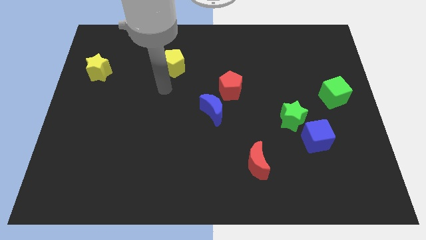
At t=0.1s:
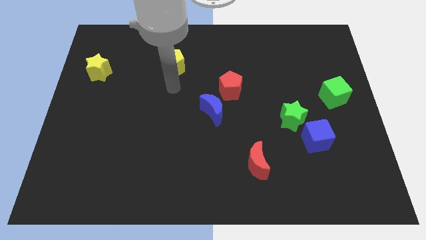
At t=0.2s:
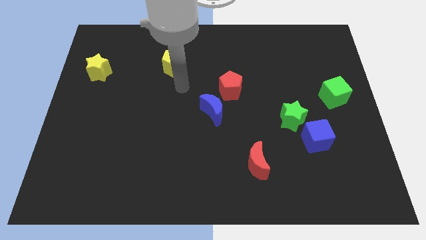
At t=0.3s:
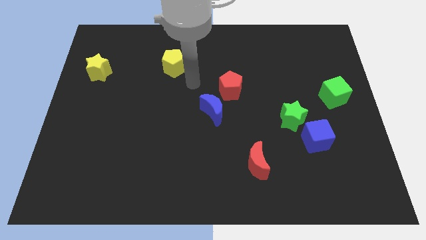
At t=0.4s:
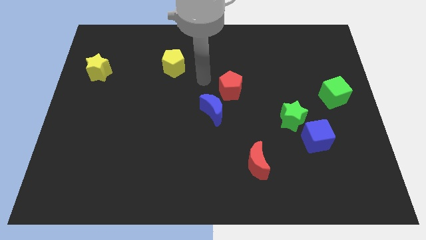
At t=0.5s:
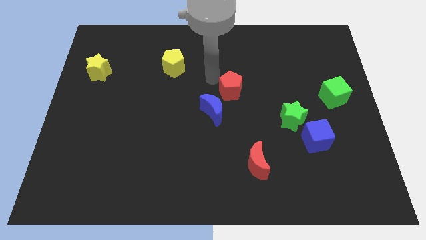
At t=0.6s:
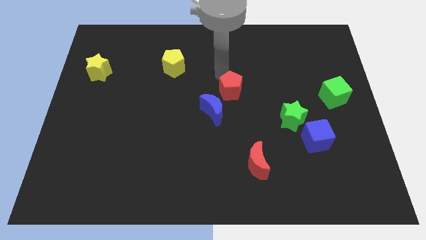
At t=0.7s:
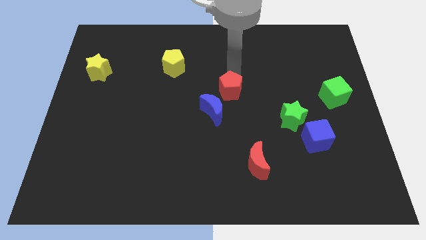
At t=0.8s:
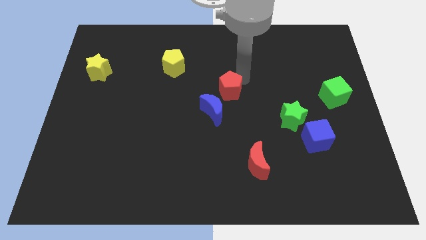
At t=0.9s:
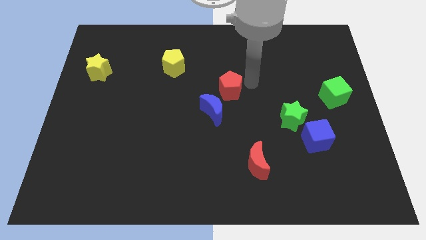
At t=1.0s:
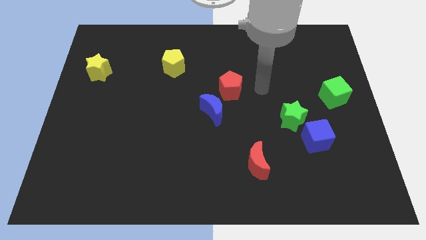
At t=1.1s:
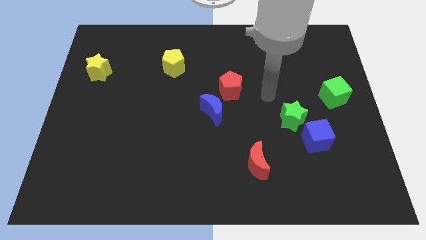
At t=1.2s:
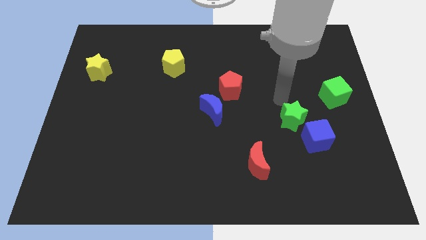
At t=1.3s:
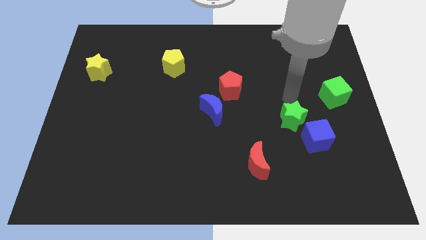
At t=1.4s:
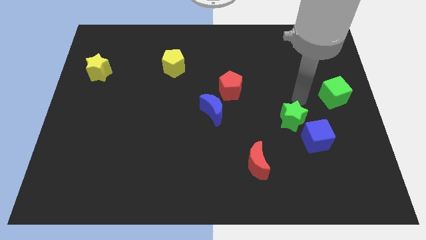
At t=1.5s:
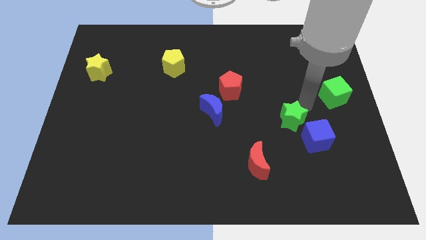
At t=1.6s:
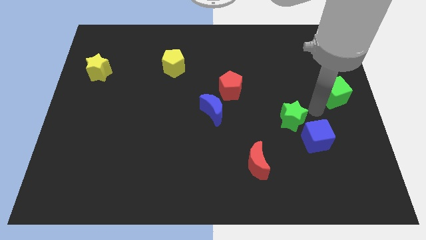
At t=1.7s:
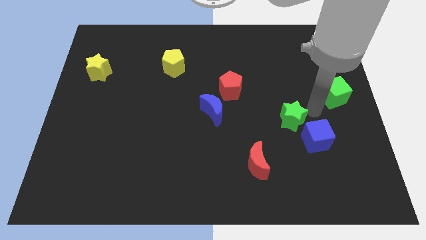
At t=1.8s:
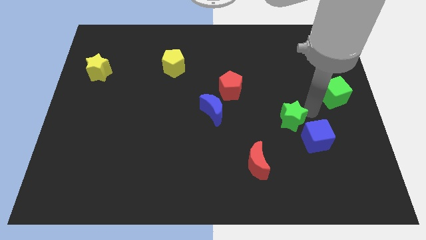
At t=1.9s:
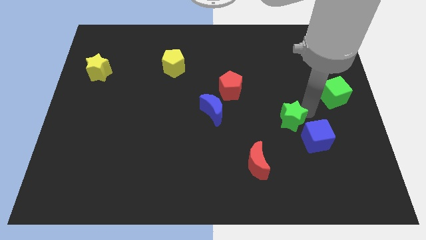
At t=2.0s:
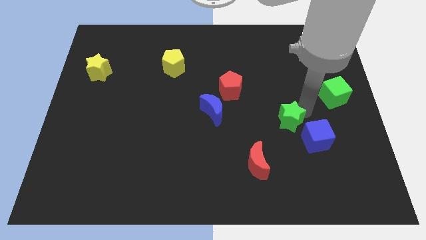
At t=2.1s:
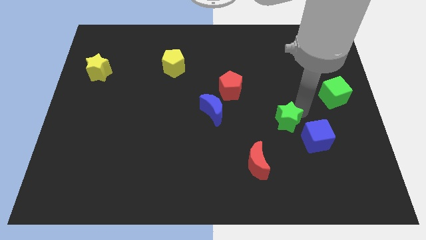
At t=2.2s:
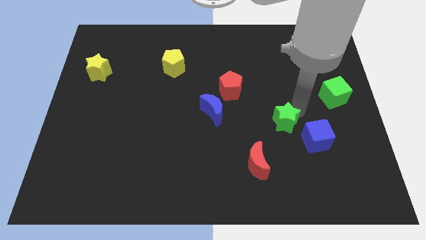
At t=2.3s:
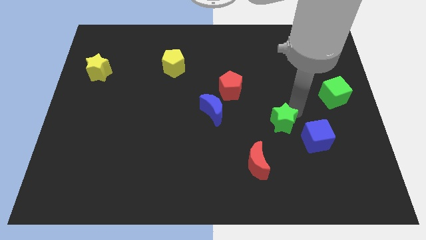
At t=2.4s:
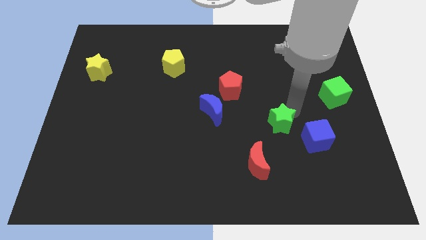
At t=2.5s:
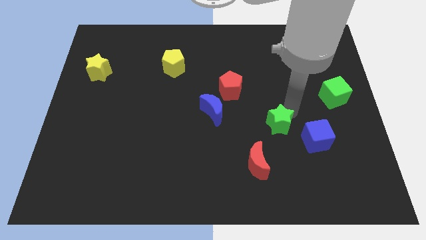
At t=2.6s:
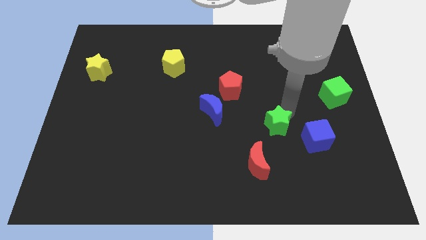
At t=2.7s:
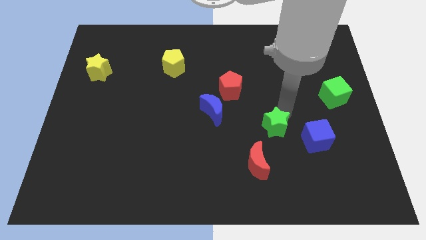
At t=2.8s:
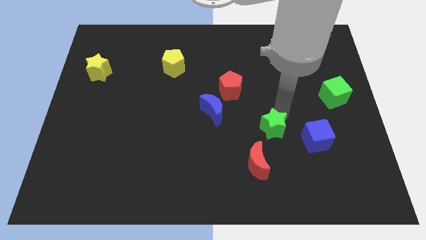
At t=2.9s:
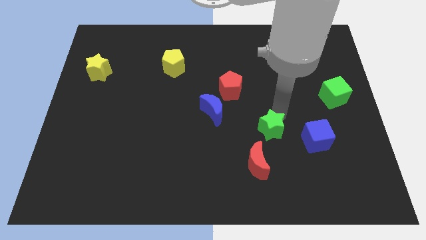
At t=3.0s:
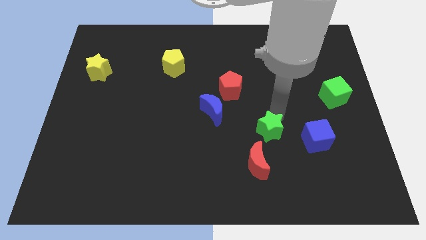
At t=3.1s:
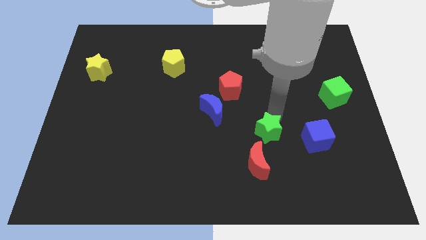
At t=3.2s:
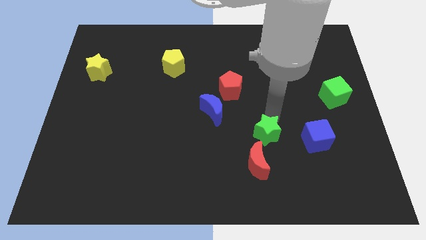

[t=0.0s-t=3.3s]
slide the green star a little downwards and then to the left

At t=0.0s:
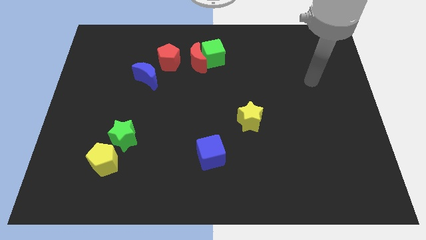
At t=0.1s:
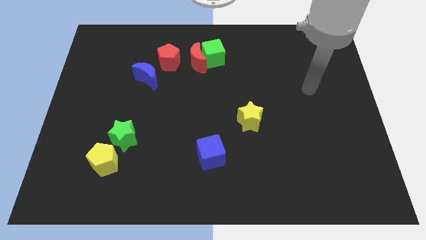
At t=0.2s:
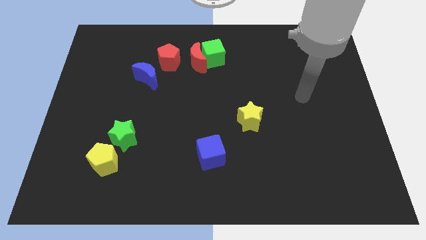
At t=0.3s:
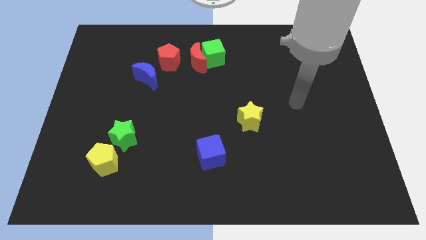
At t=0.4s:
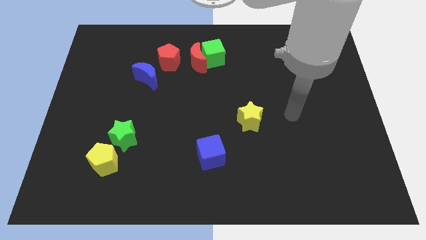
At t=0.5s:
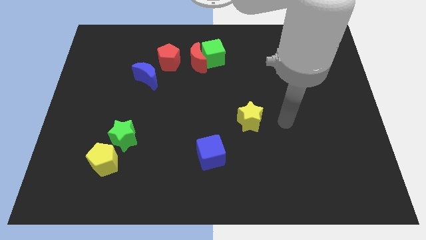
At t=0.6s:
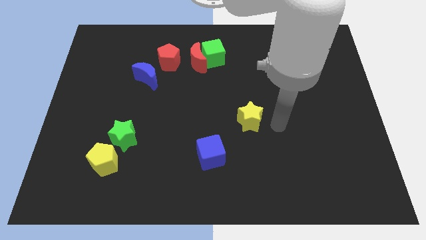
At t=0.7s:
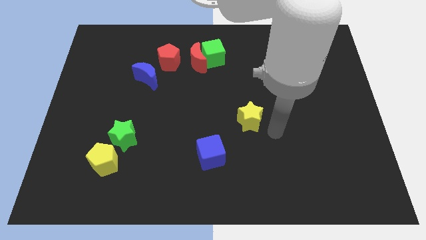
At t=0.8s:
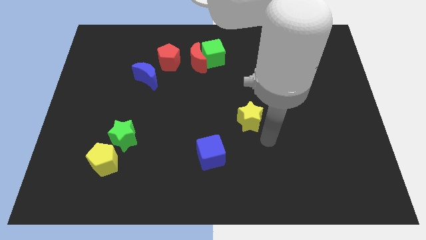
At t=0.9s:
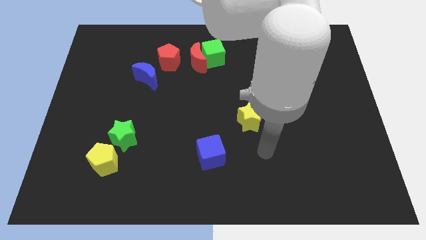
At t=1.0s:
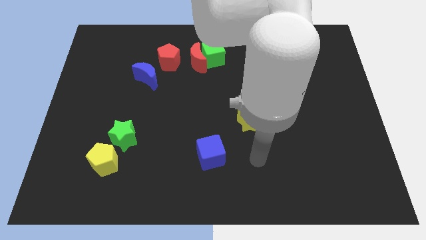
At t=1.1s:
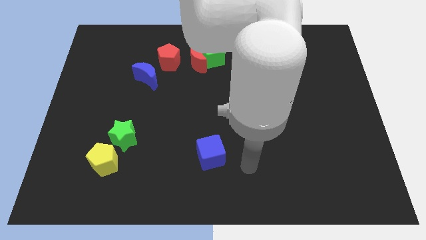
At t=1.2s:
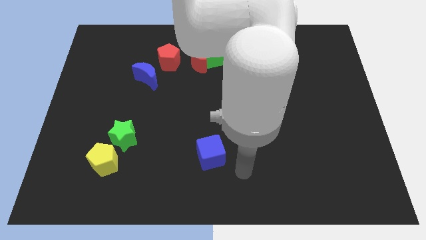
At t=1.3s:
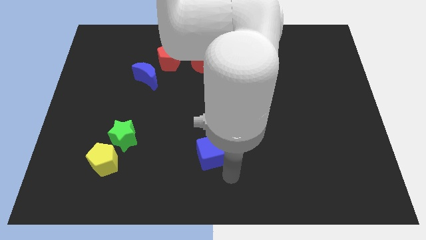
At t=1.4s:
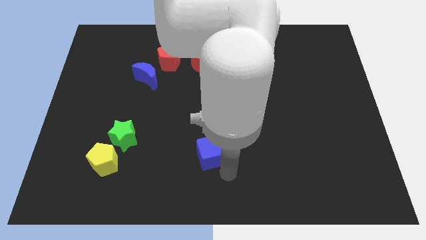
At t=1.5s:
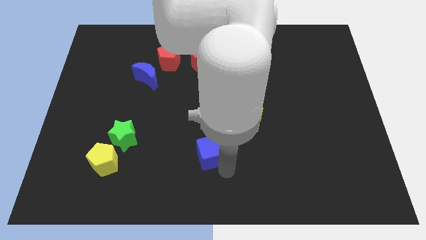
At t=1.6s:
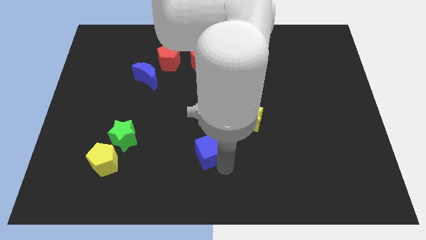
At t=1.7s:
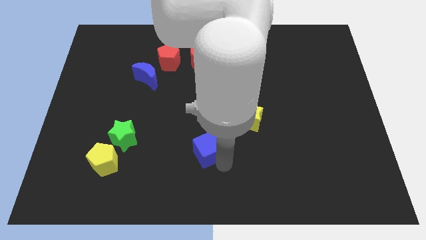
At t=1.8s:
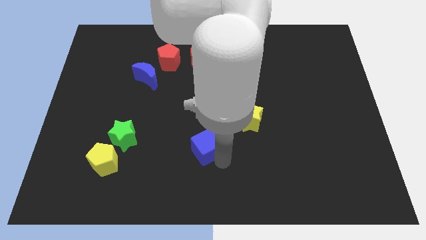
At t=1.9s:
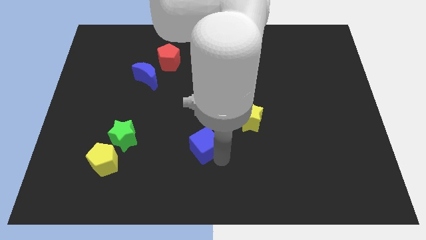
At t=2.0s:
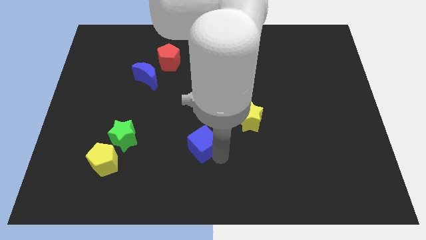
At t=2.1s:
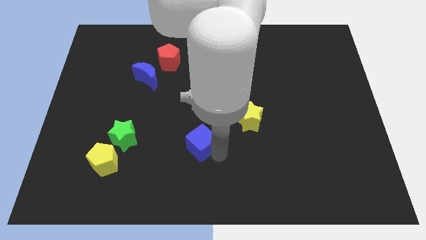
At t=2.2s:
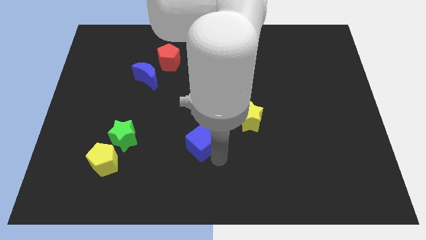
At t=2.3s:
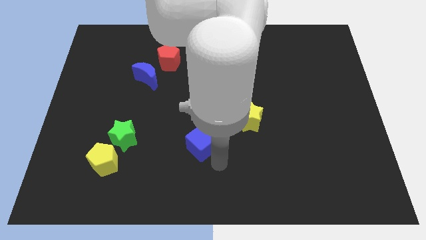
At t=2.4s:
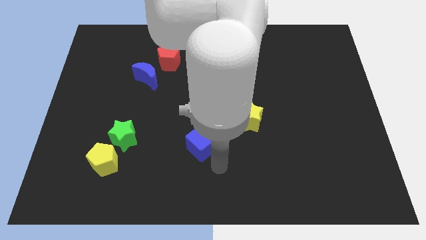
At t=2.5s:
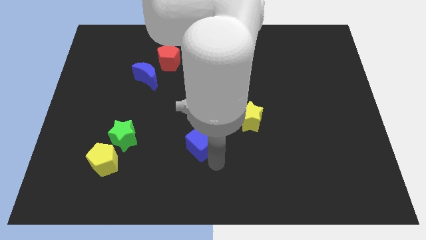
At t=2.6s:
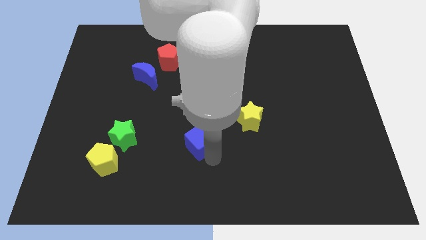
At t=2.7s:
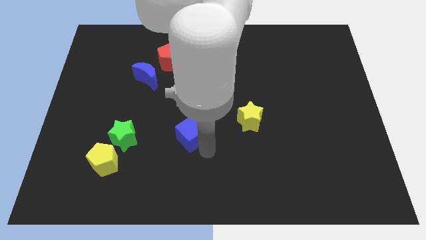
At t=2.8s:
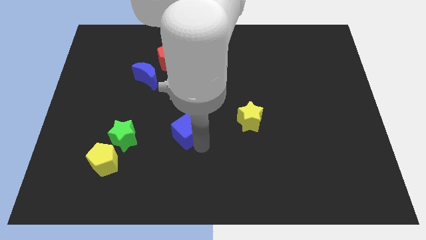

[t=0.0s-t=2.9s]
slightly push the blue cube up and to the left

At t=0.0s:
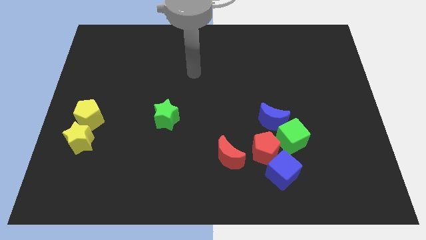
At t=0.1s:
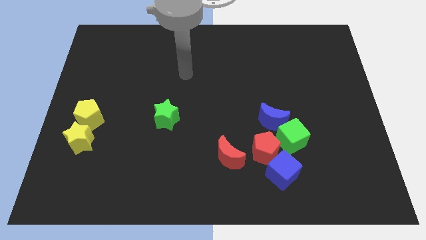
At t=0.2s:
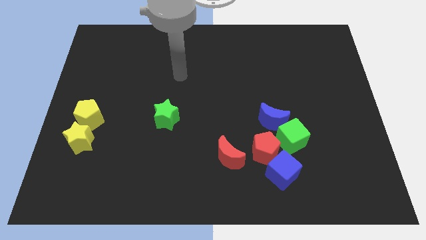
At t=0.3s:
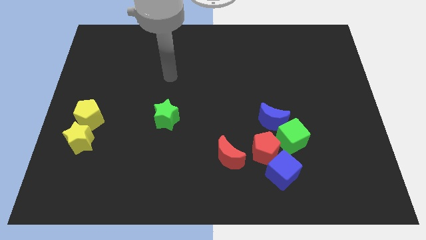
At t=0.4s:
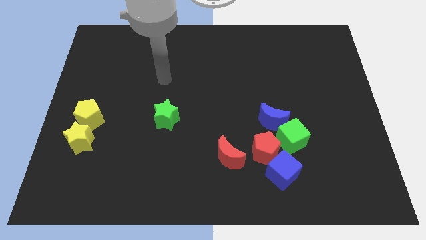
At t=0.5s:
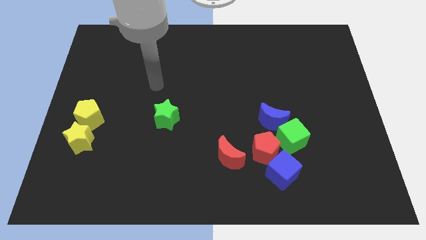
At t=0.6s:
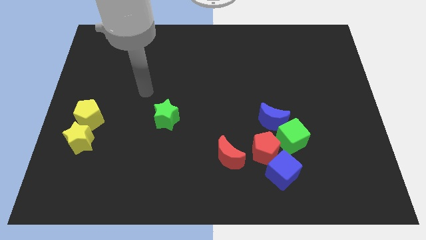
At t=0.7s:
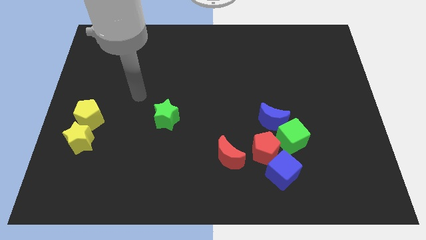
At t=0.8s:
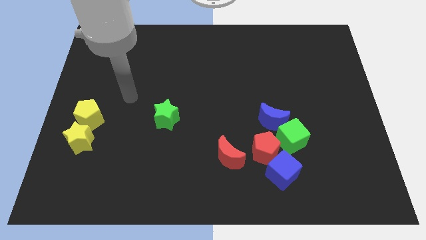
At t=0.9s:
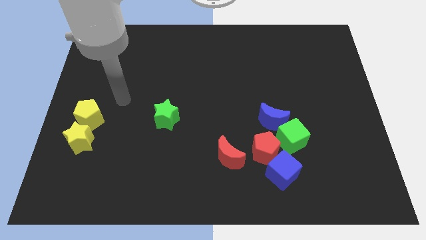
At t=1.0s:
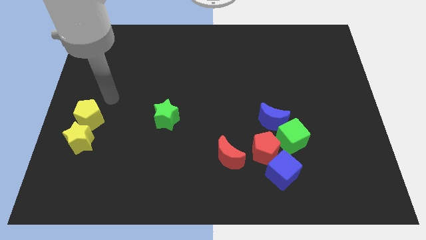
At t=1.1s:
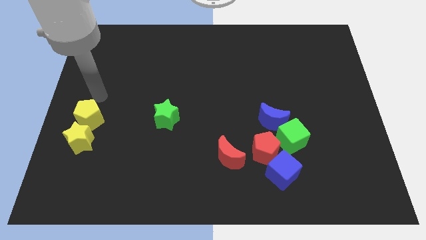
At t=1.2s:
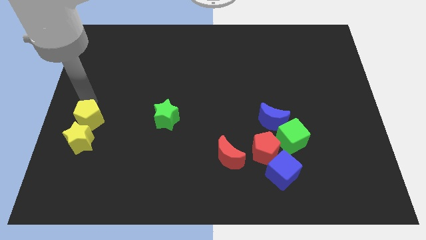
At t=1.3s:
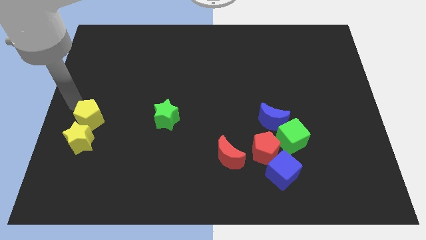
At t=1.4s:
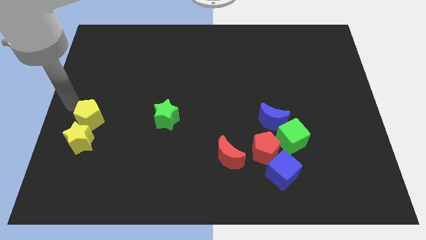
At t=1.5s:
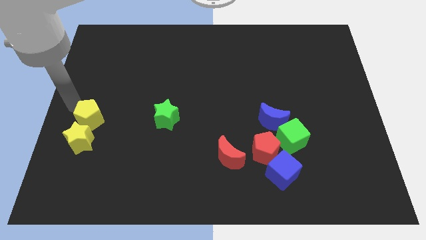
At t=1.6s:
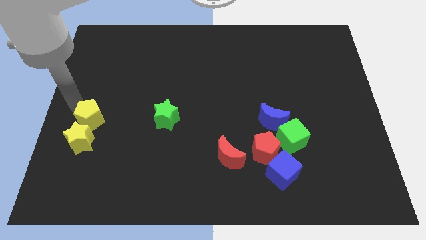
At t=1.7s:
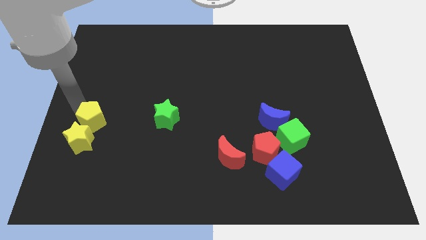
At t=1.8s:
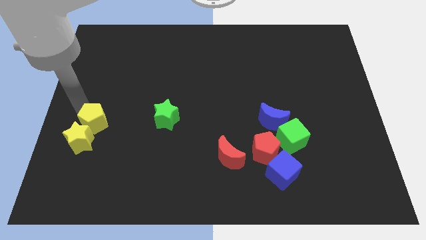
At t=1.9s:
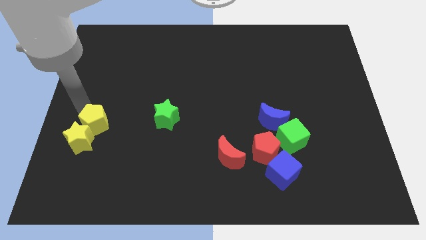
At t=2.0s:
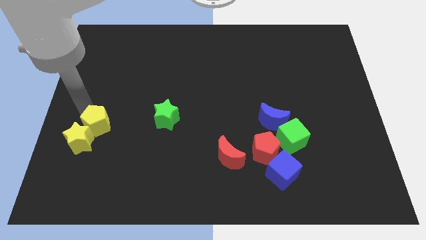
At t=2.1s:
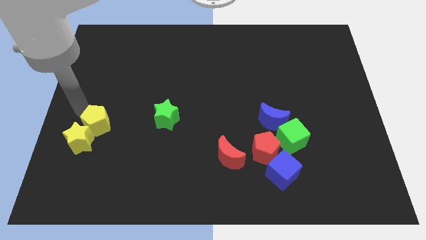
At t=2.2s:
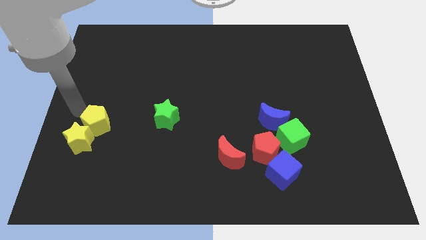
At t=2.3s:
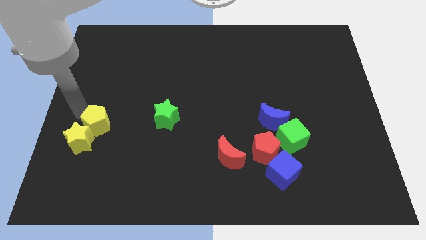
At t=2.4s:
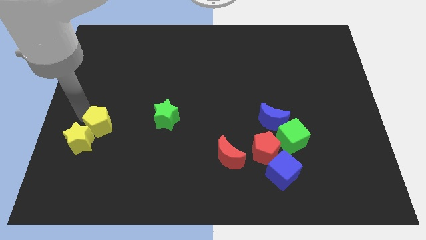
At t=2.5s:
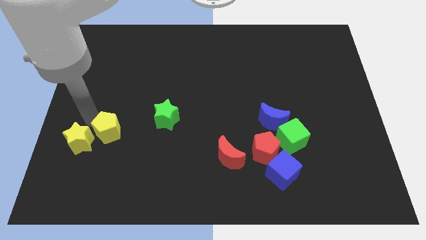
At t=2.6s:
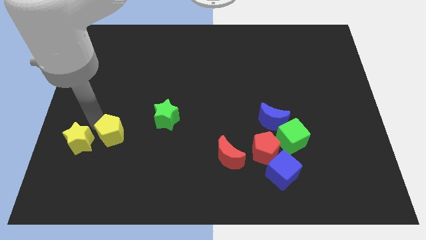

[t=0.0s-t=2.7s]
push the yellow pentagon somewhat diagonally down and right
